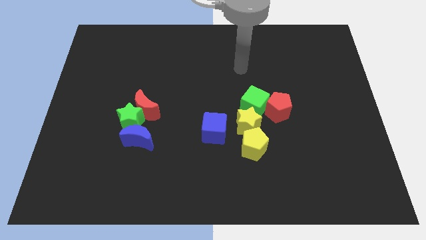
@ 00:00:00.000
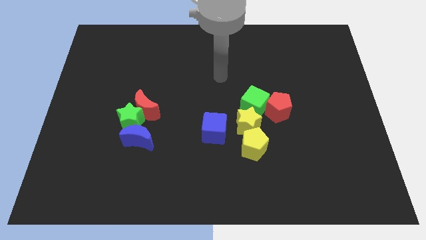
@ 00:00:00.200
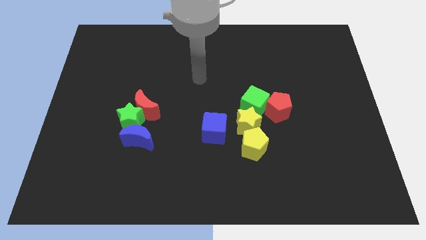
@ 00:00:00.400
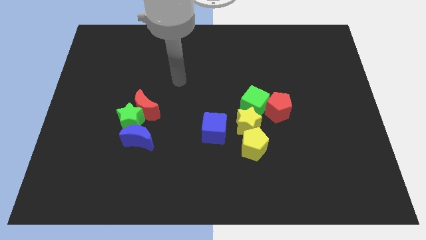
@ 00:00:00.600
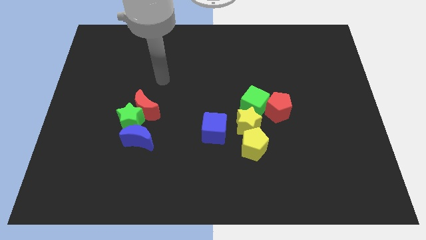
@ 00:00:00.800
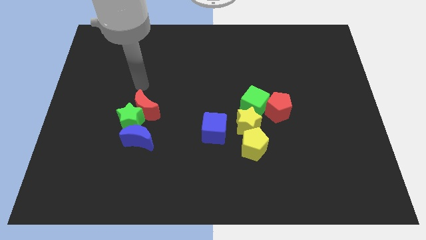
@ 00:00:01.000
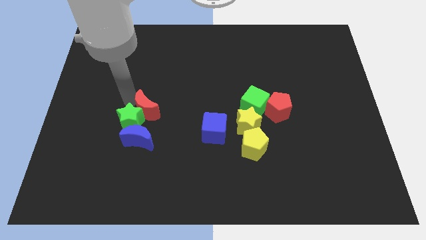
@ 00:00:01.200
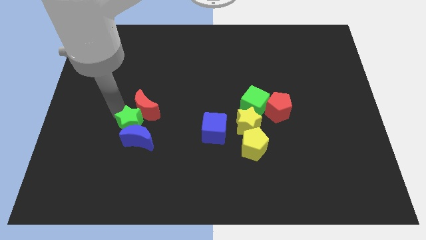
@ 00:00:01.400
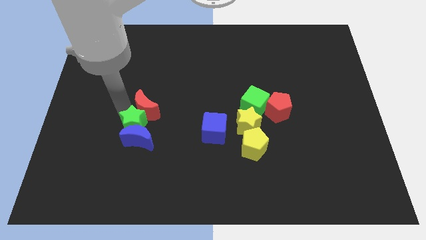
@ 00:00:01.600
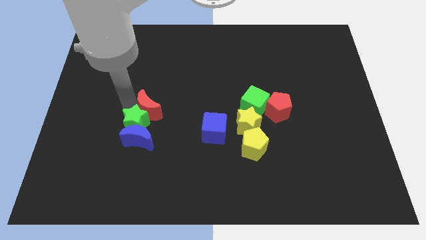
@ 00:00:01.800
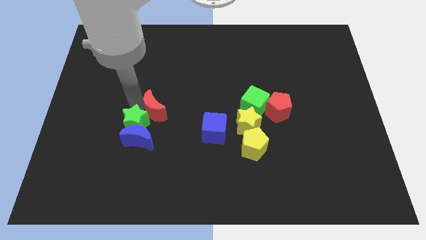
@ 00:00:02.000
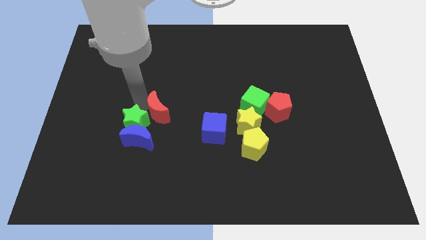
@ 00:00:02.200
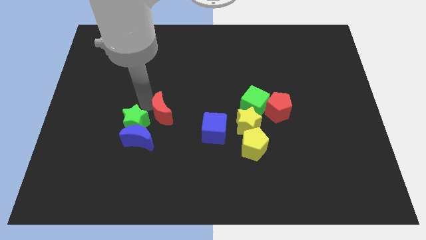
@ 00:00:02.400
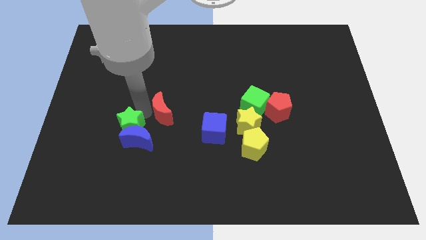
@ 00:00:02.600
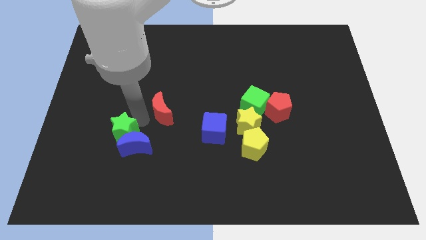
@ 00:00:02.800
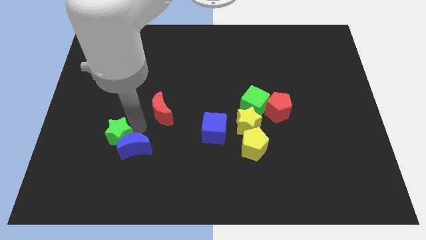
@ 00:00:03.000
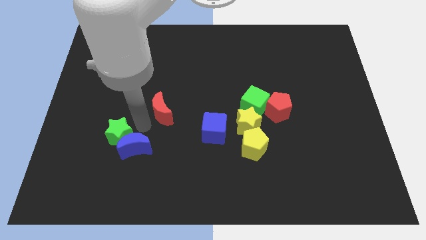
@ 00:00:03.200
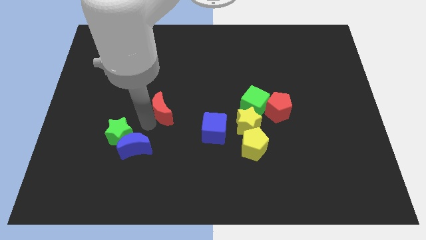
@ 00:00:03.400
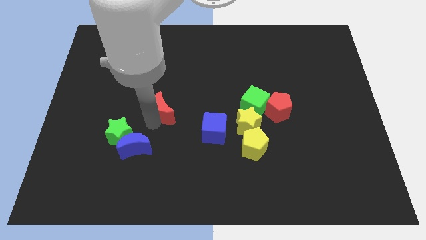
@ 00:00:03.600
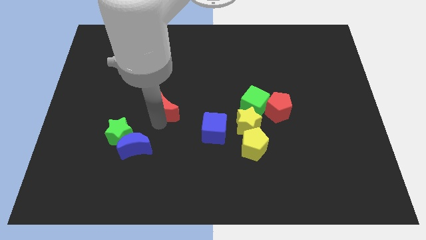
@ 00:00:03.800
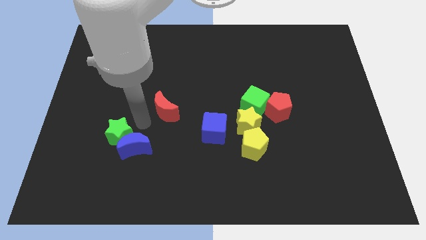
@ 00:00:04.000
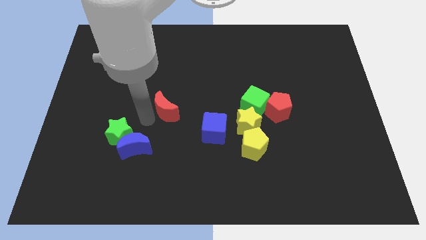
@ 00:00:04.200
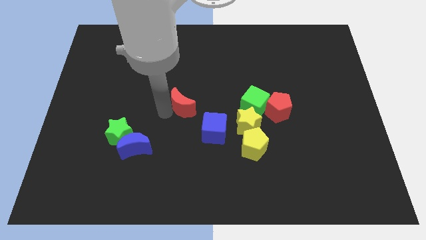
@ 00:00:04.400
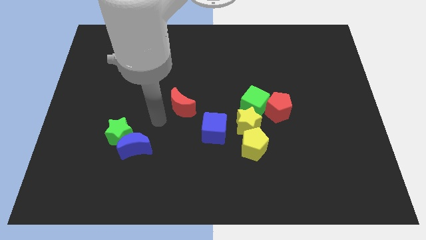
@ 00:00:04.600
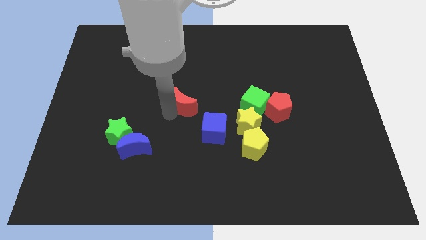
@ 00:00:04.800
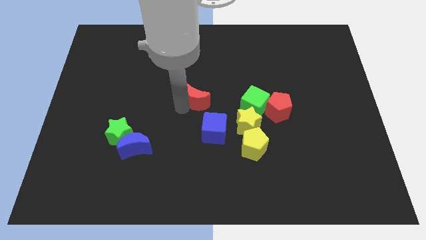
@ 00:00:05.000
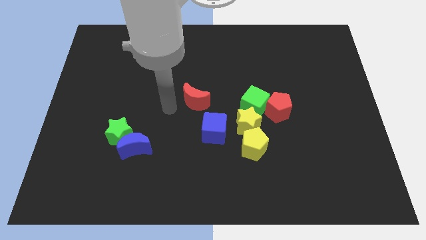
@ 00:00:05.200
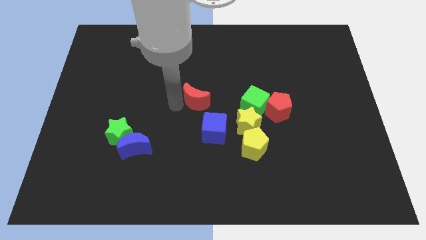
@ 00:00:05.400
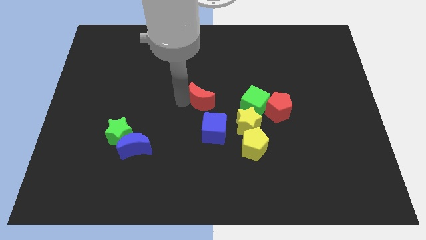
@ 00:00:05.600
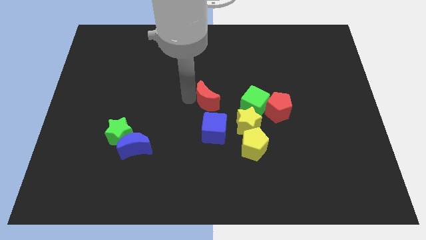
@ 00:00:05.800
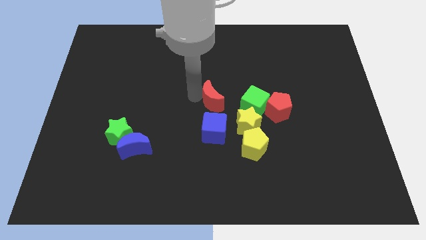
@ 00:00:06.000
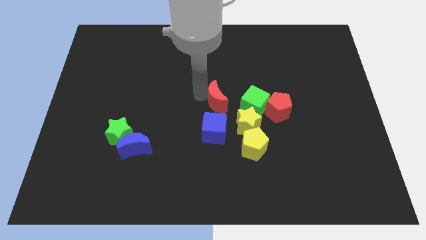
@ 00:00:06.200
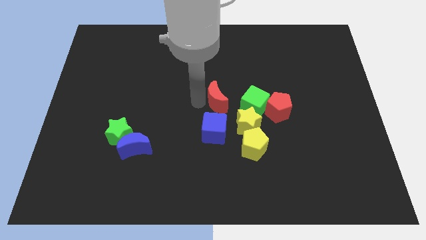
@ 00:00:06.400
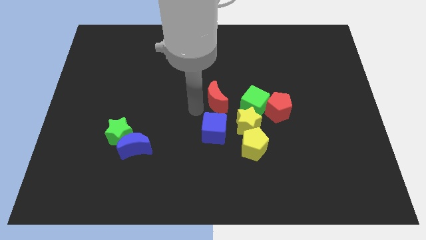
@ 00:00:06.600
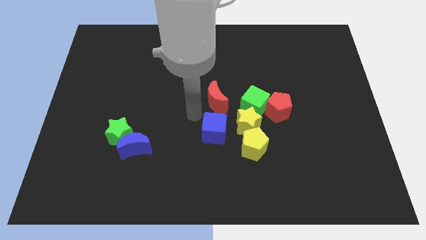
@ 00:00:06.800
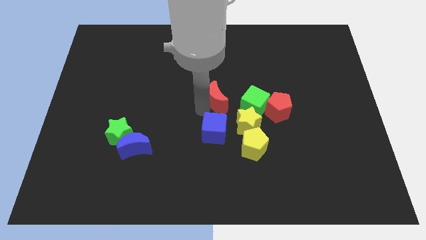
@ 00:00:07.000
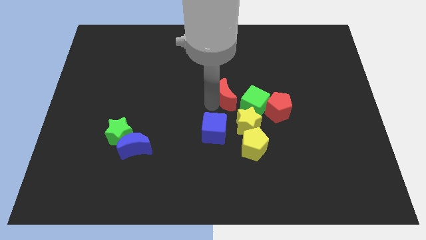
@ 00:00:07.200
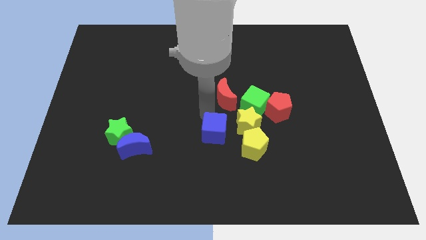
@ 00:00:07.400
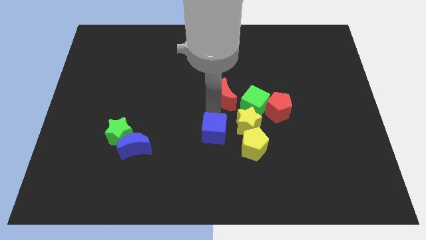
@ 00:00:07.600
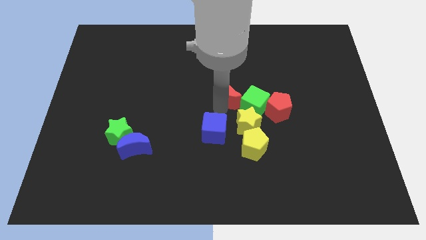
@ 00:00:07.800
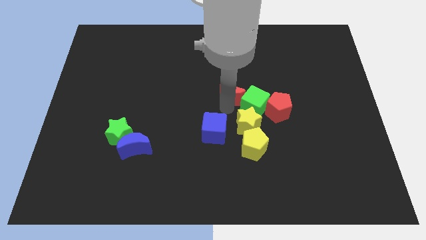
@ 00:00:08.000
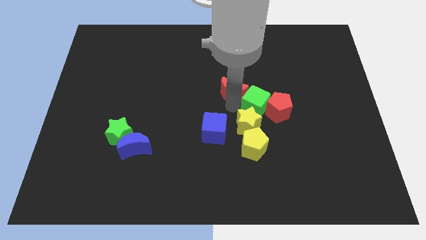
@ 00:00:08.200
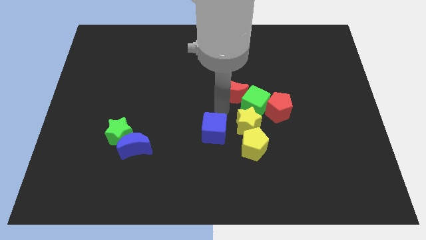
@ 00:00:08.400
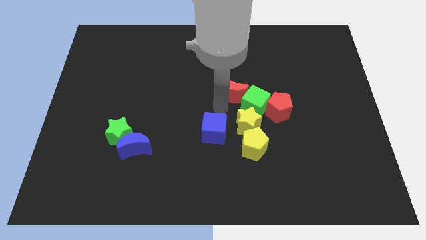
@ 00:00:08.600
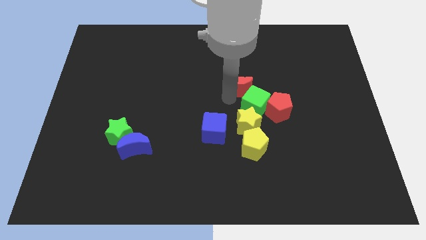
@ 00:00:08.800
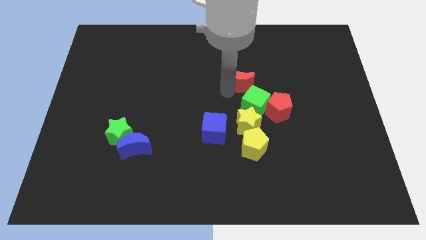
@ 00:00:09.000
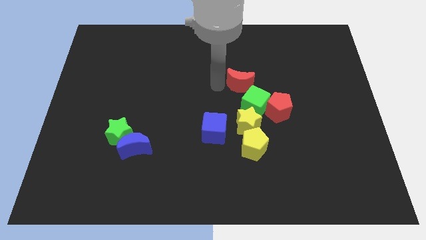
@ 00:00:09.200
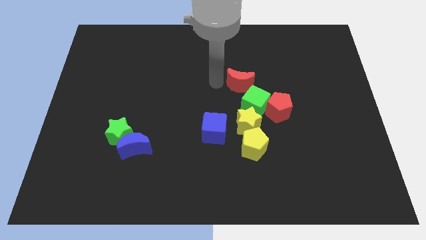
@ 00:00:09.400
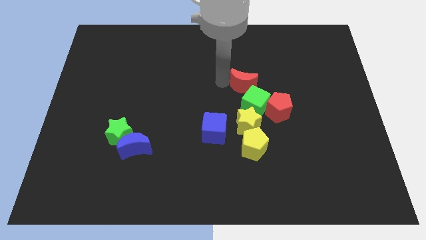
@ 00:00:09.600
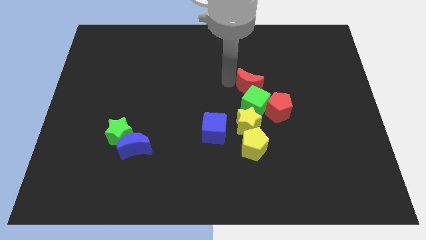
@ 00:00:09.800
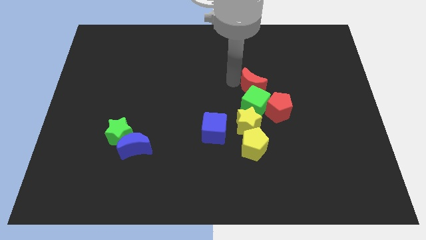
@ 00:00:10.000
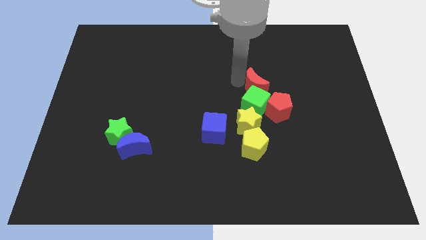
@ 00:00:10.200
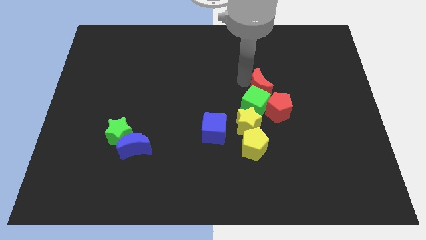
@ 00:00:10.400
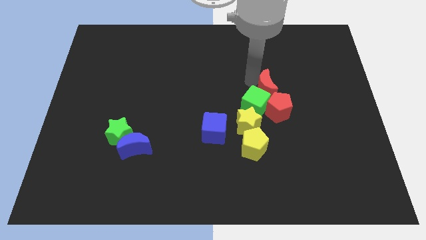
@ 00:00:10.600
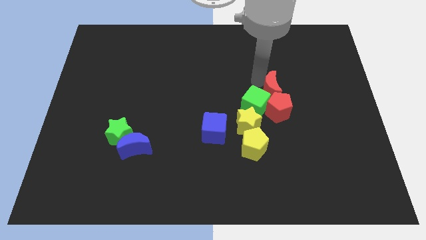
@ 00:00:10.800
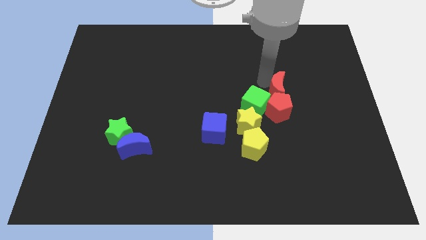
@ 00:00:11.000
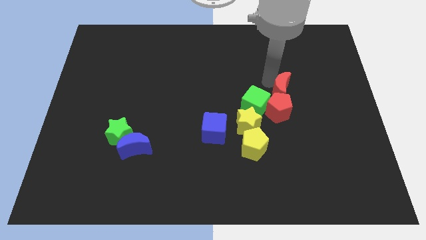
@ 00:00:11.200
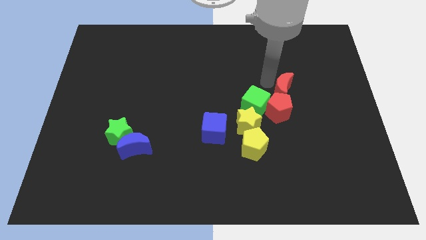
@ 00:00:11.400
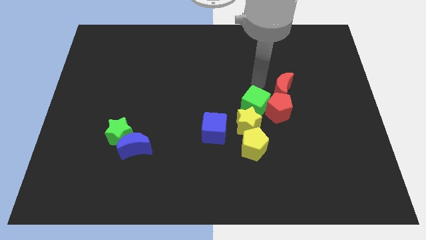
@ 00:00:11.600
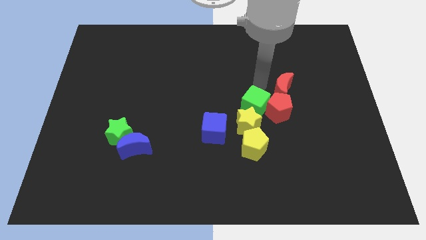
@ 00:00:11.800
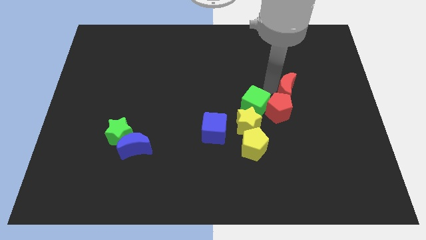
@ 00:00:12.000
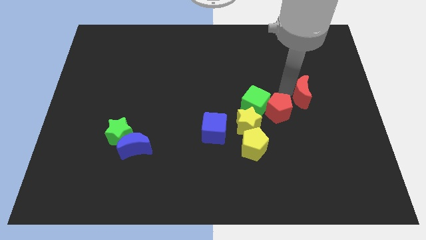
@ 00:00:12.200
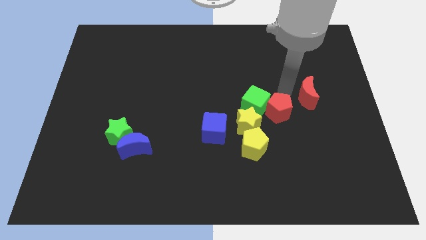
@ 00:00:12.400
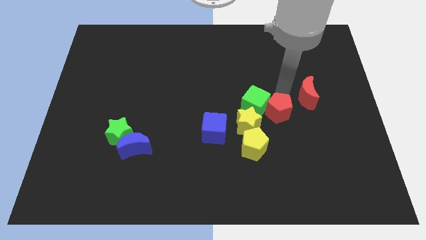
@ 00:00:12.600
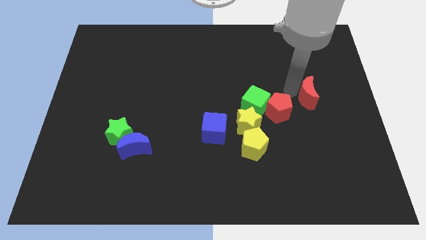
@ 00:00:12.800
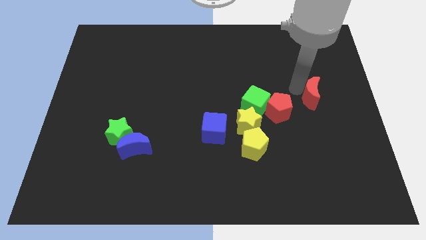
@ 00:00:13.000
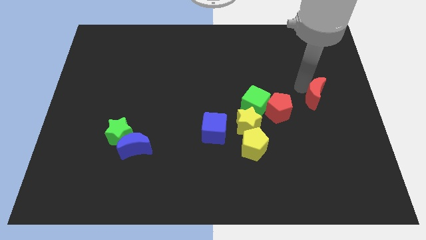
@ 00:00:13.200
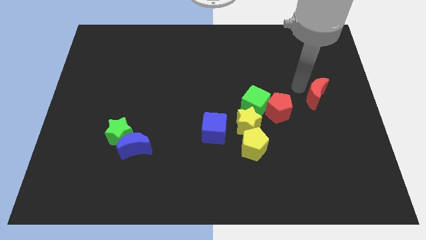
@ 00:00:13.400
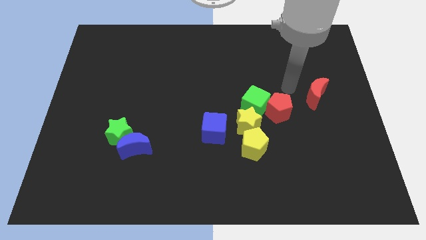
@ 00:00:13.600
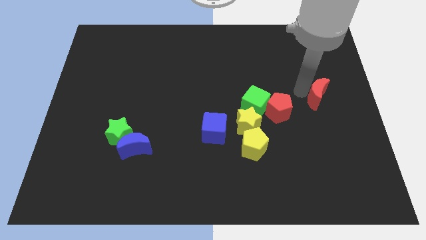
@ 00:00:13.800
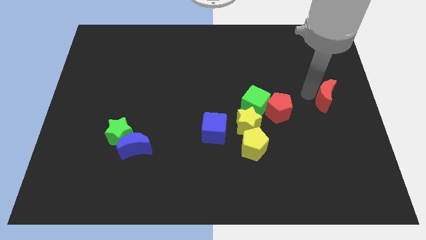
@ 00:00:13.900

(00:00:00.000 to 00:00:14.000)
slide the red moon to the right side
